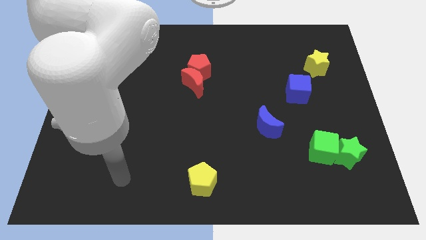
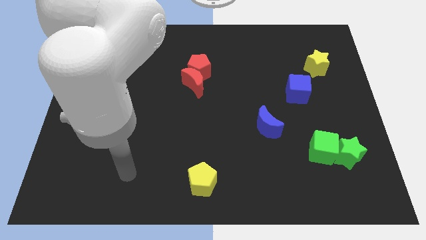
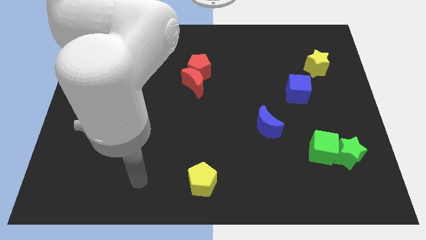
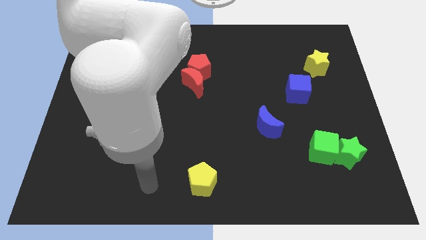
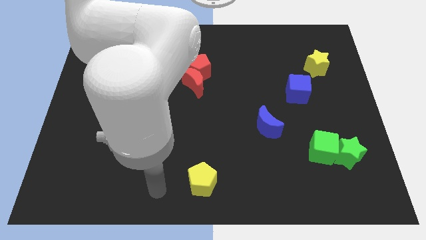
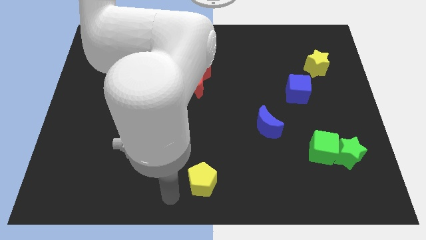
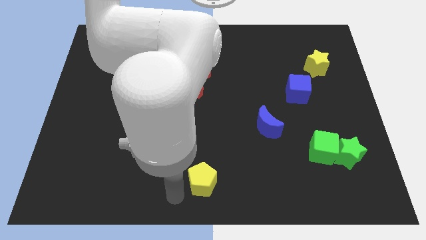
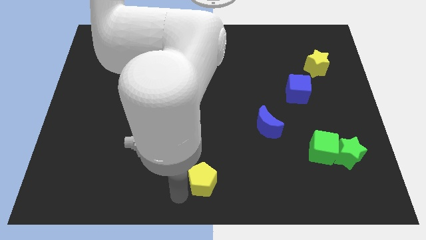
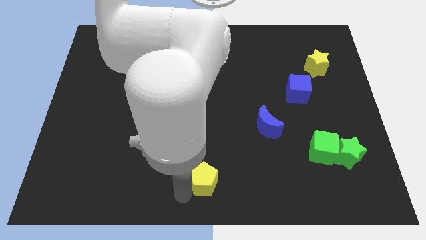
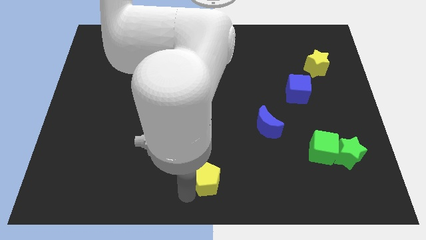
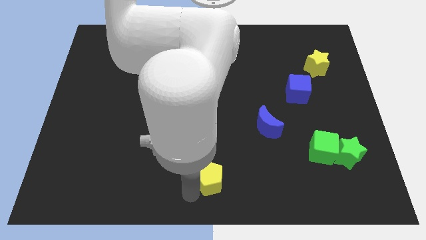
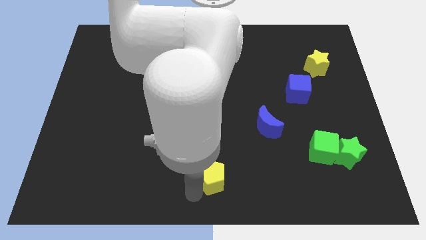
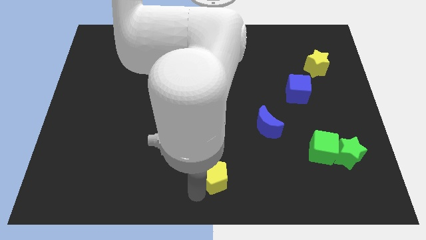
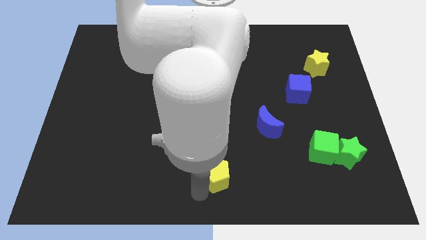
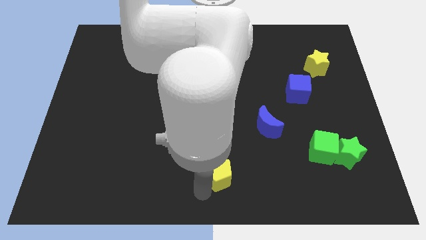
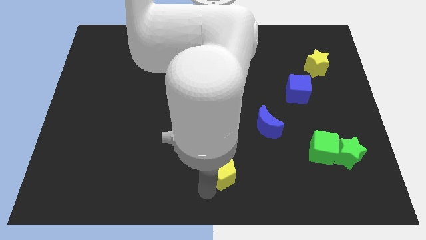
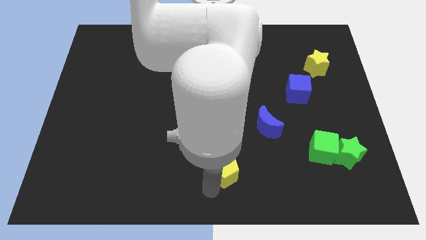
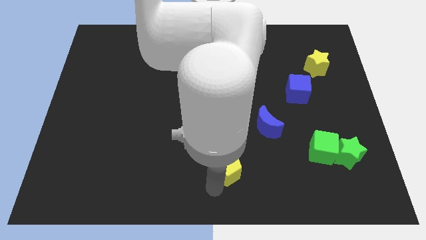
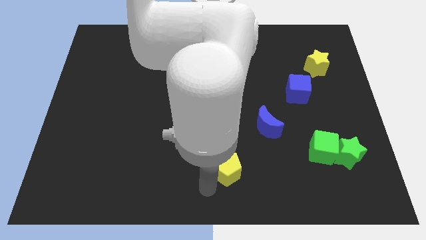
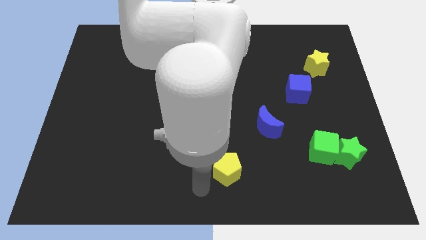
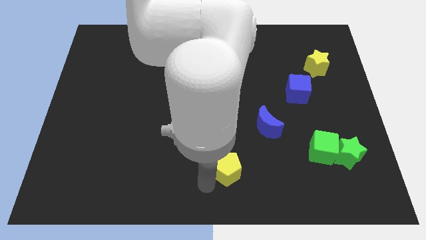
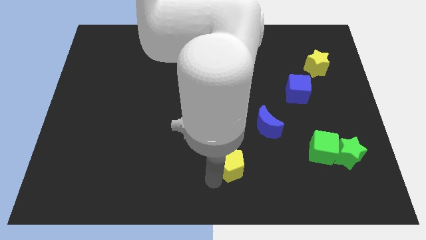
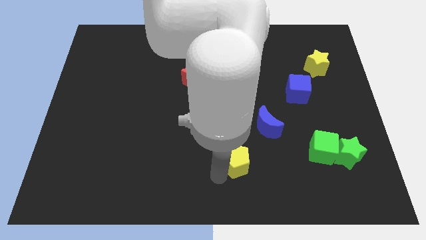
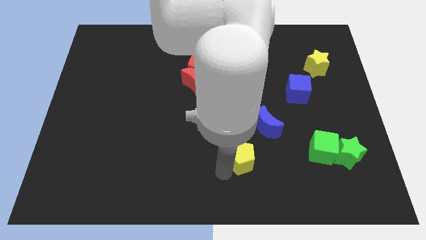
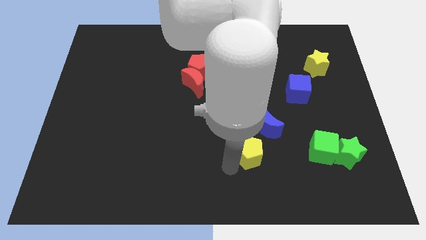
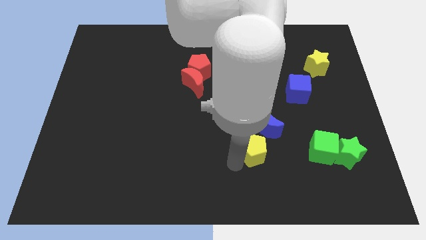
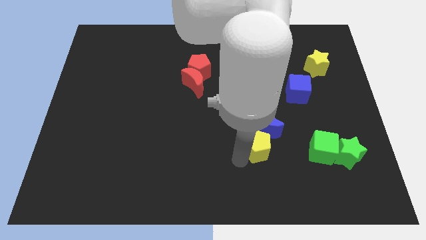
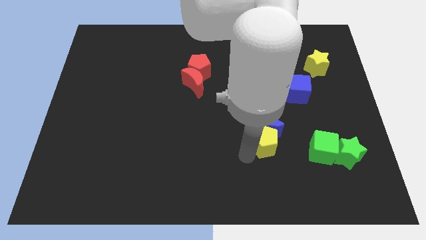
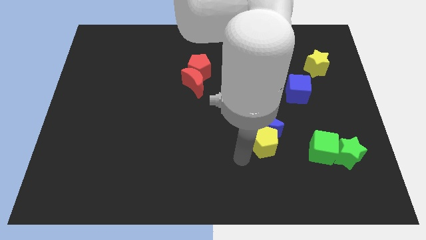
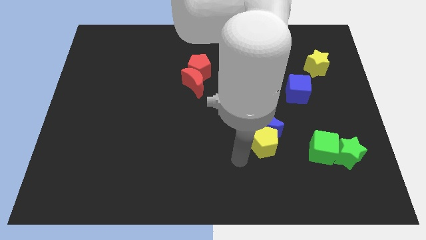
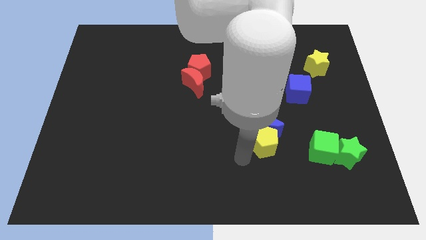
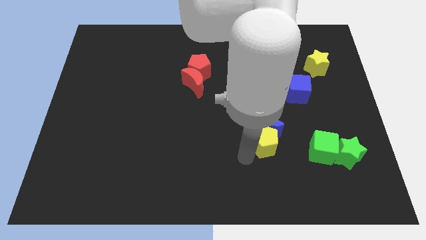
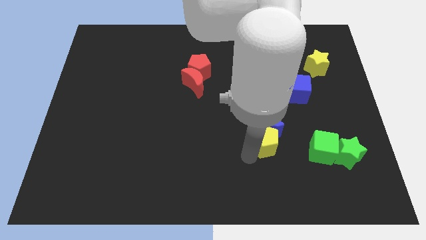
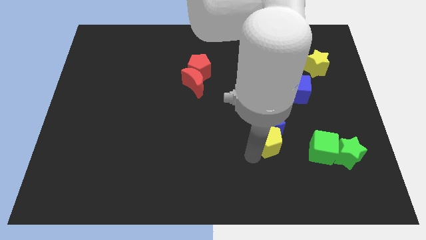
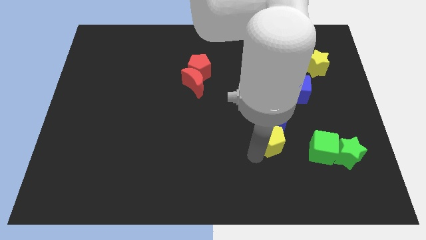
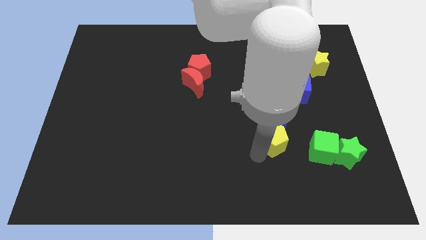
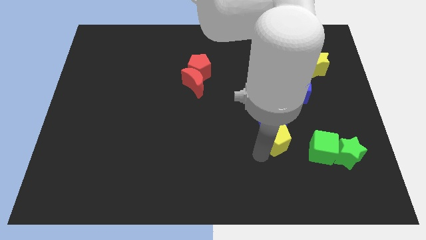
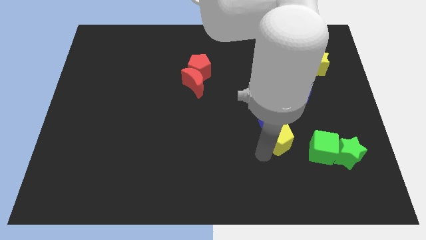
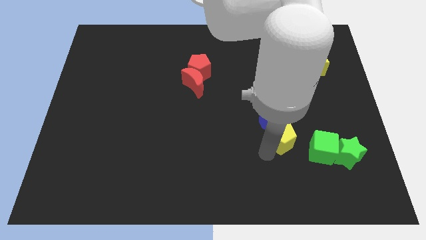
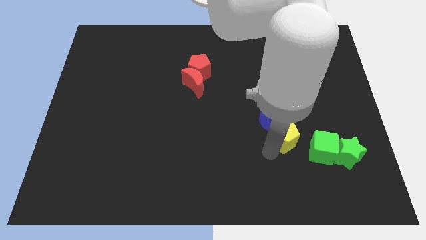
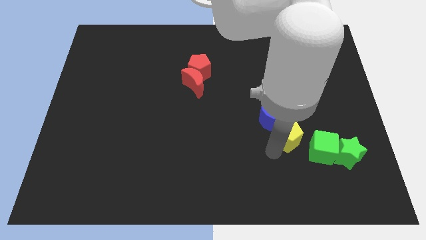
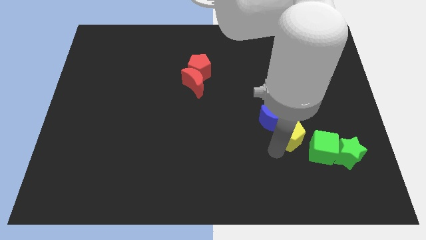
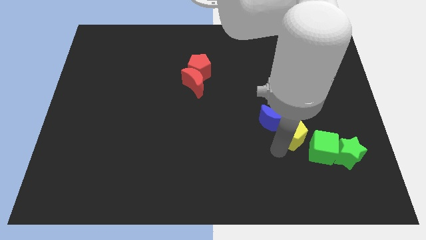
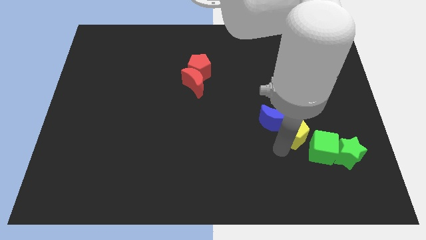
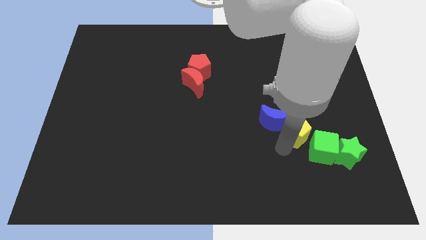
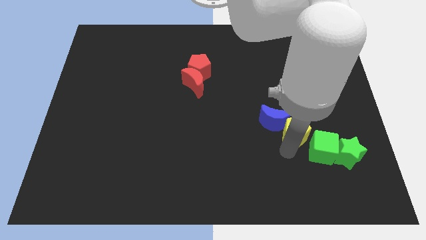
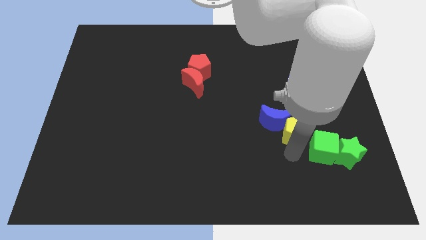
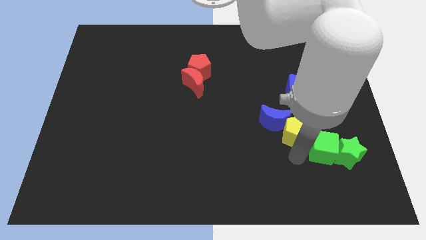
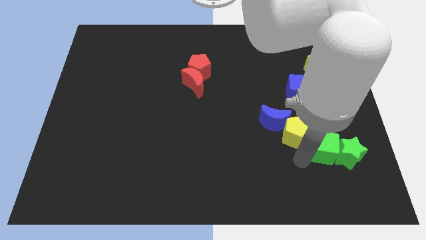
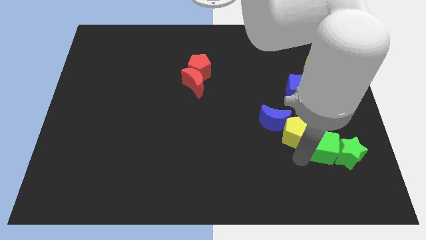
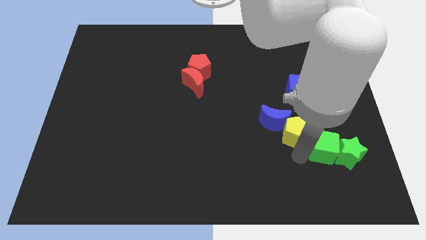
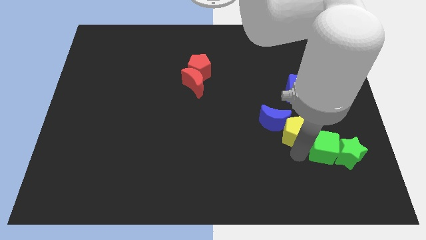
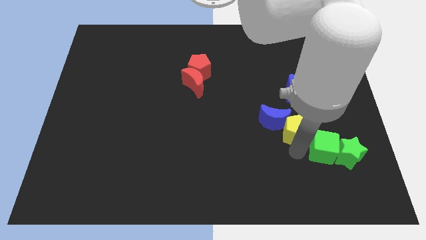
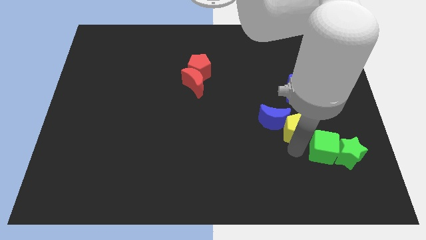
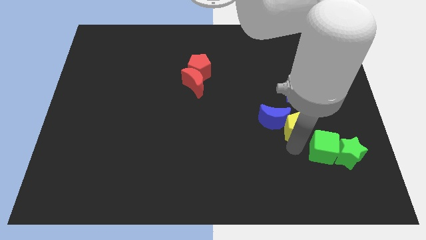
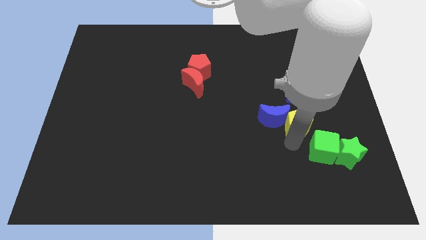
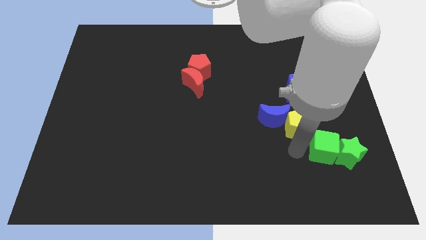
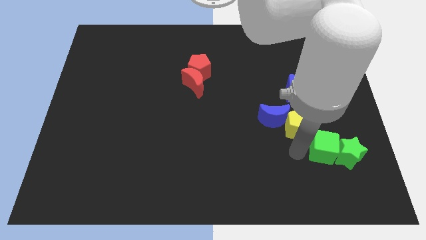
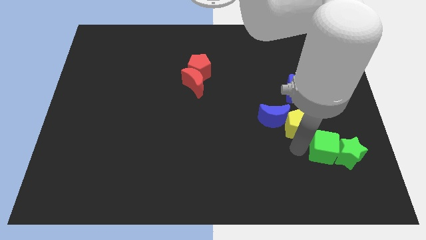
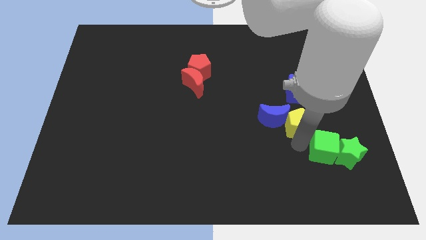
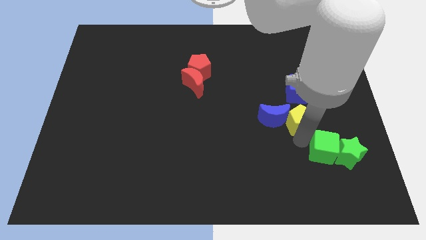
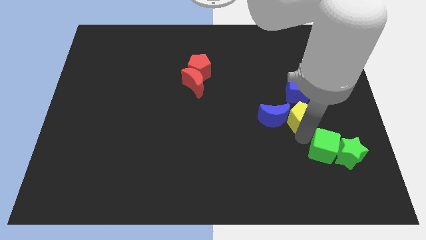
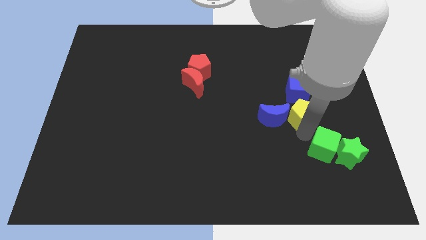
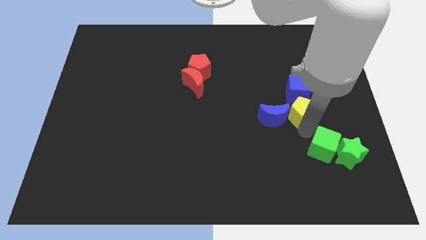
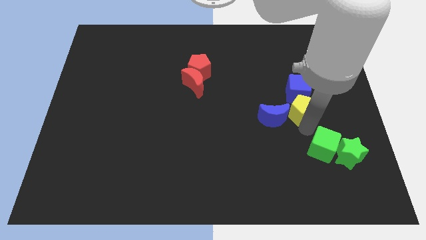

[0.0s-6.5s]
slide the yellow pentagon towards the blue cube
